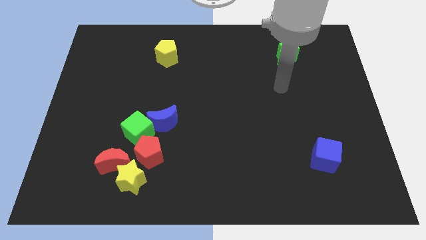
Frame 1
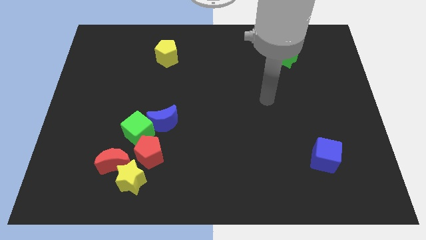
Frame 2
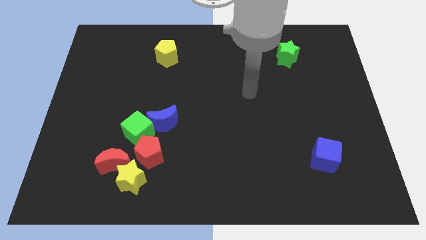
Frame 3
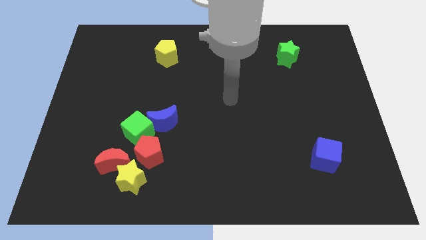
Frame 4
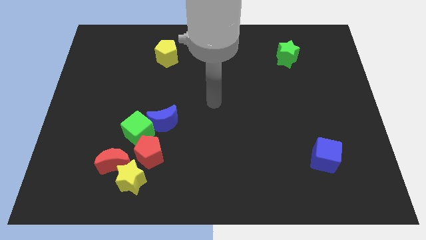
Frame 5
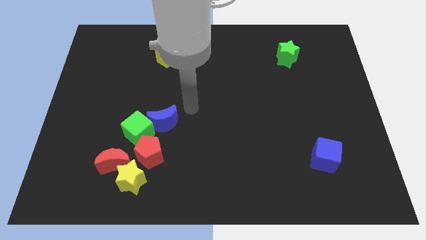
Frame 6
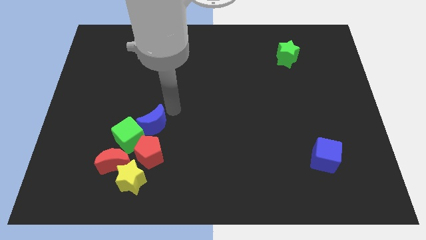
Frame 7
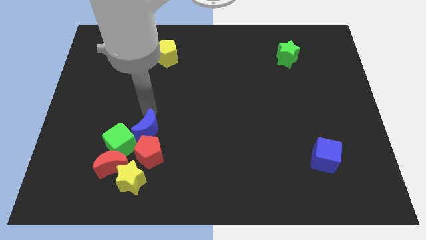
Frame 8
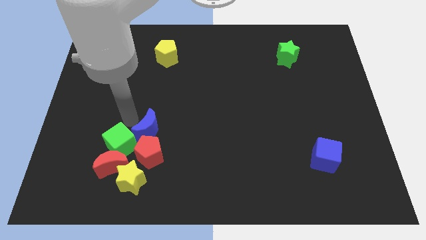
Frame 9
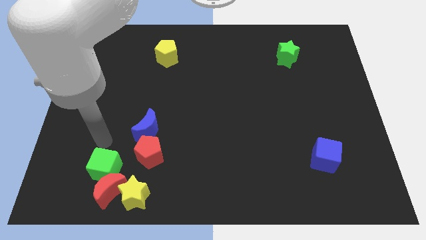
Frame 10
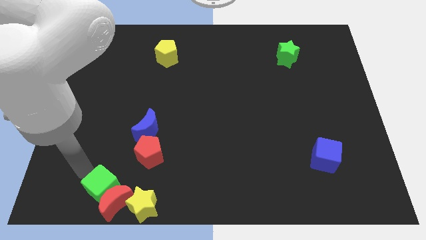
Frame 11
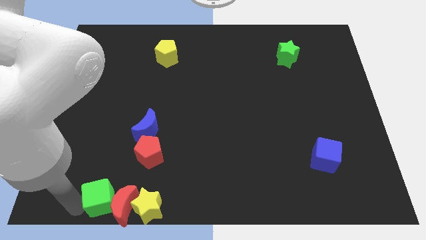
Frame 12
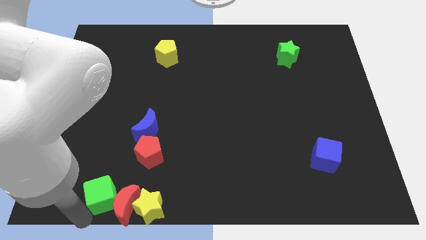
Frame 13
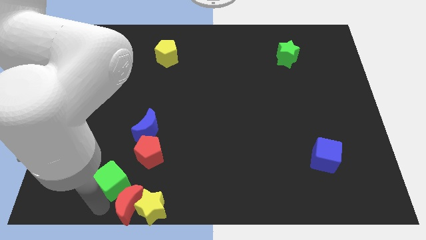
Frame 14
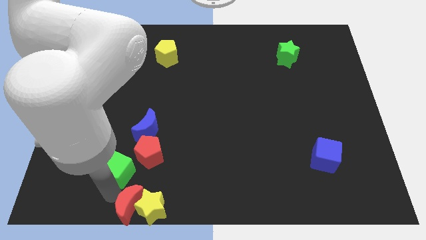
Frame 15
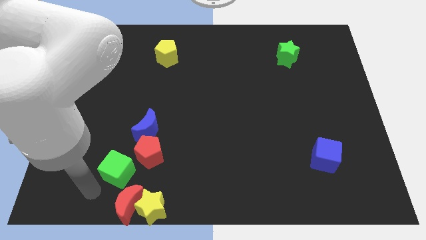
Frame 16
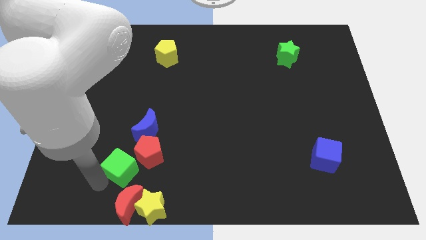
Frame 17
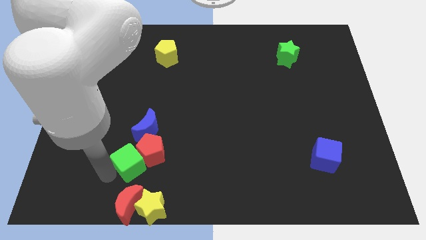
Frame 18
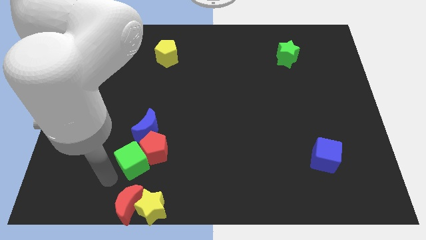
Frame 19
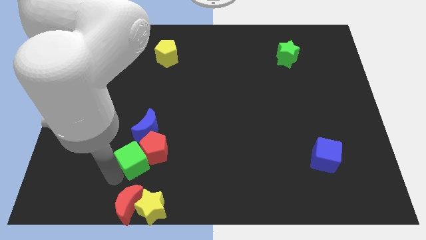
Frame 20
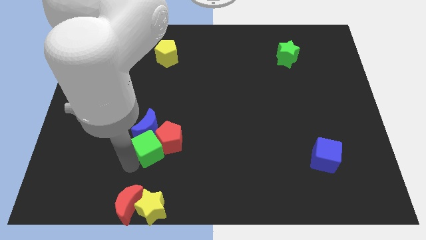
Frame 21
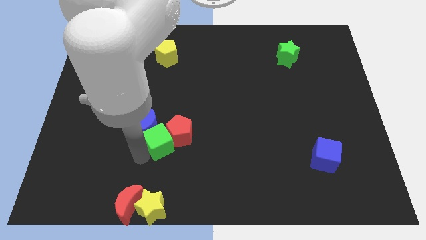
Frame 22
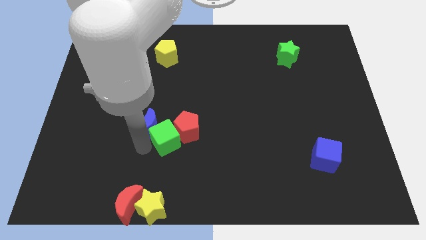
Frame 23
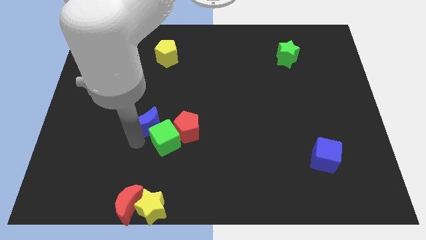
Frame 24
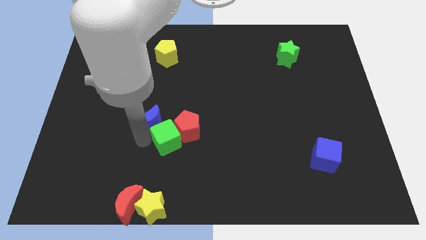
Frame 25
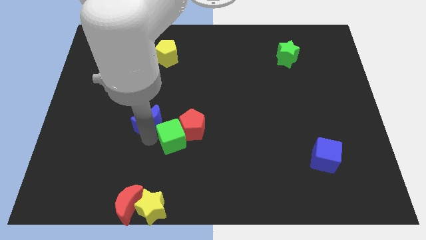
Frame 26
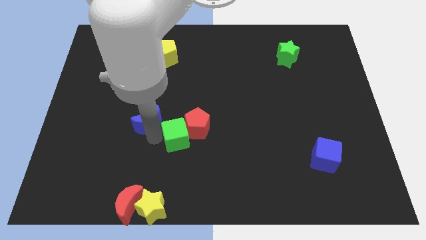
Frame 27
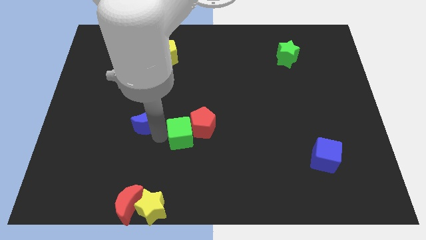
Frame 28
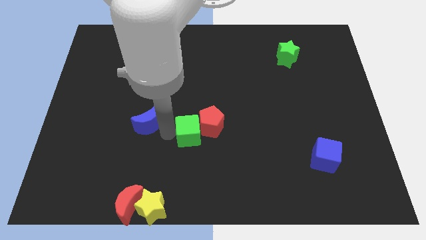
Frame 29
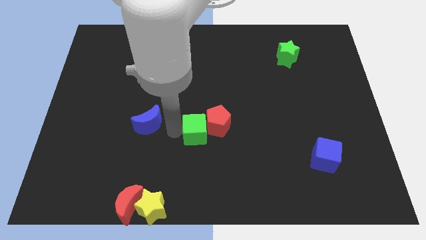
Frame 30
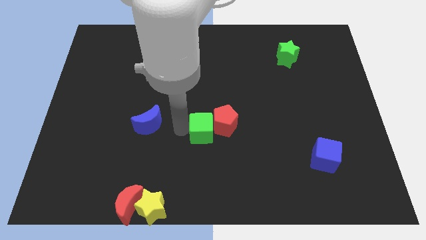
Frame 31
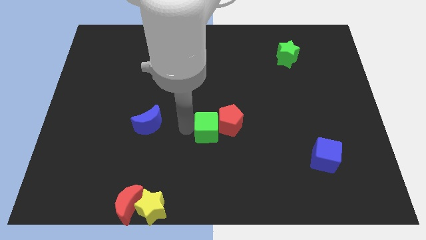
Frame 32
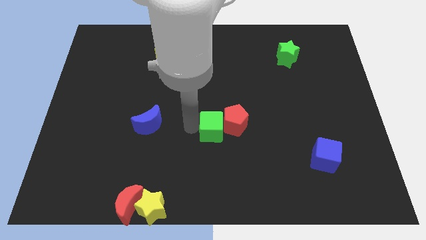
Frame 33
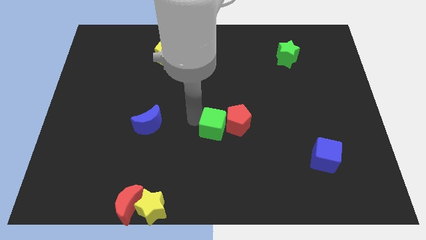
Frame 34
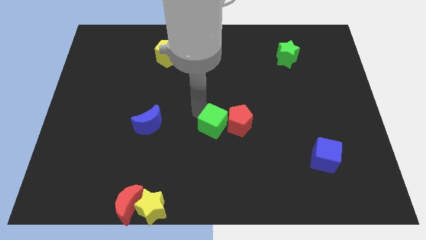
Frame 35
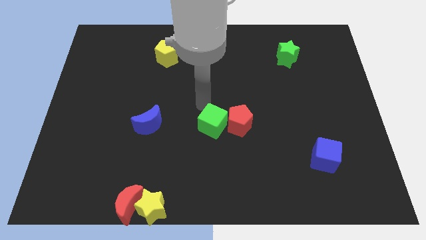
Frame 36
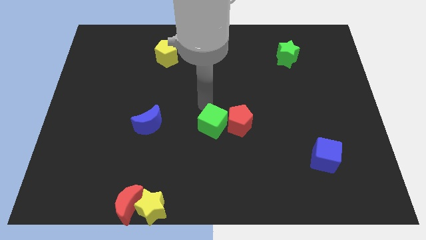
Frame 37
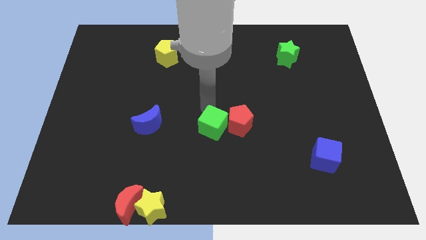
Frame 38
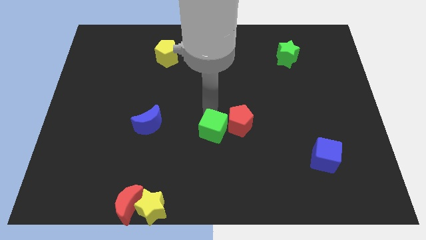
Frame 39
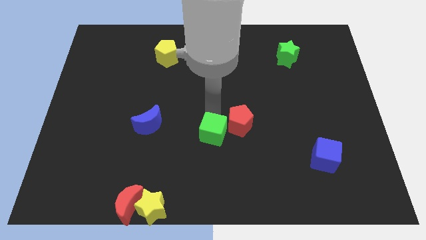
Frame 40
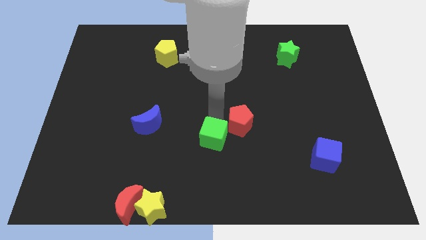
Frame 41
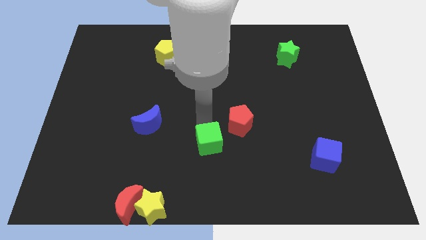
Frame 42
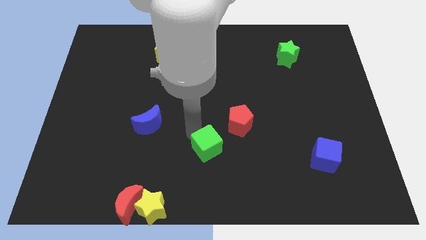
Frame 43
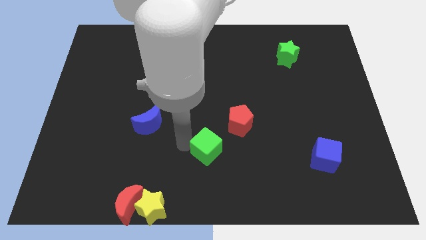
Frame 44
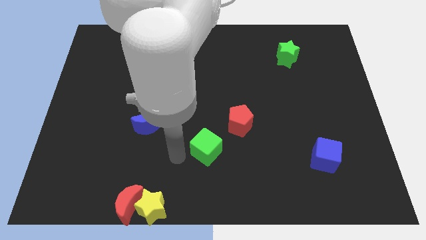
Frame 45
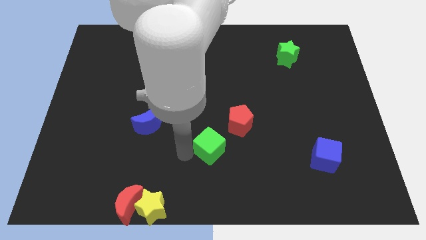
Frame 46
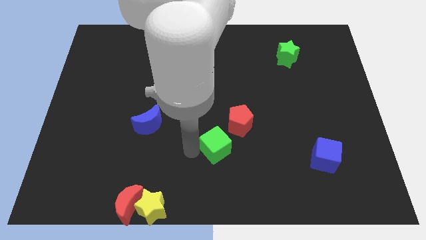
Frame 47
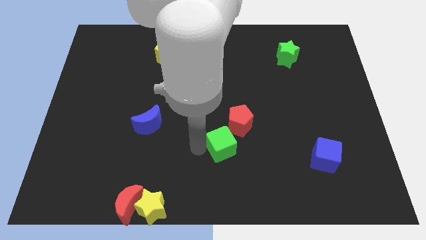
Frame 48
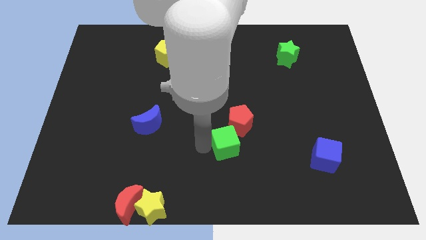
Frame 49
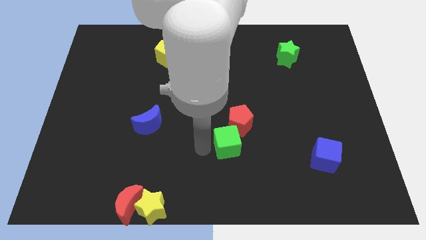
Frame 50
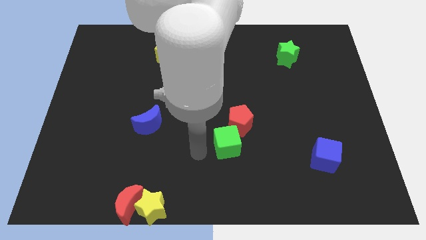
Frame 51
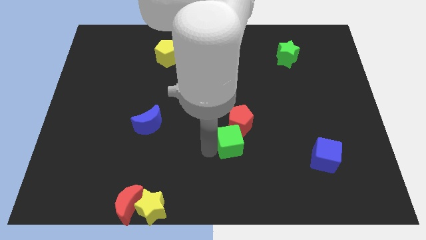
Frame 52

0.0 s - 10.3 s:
slide the green cube right

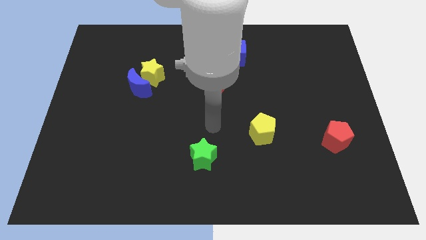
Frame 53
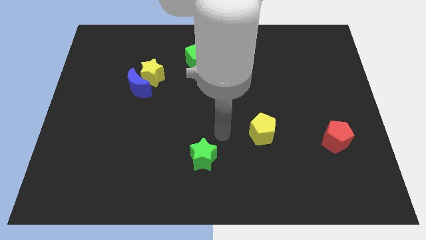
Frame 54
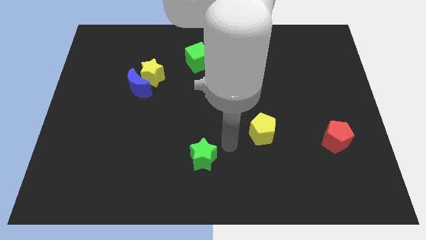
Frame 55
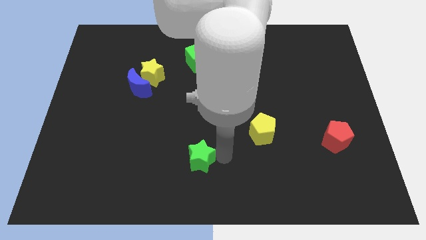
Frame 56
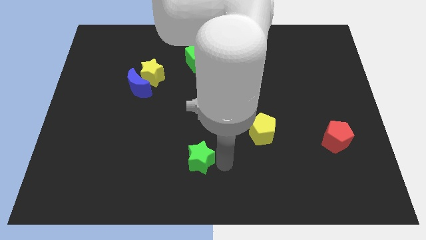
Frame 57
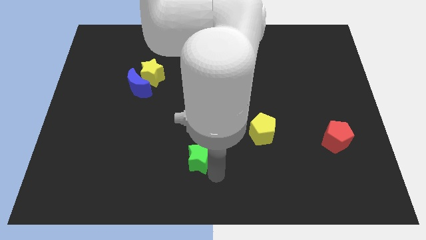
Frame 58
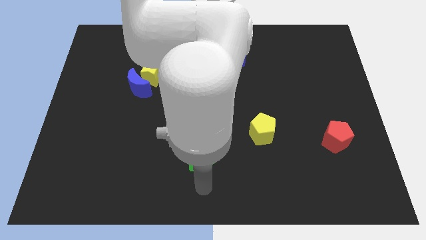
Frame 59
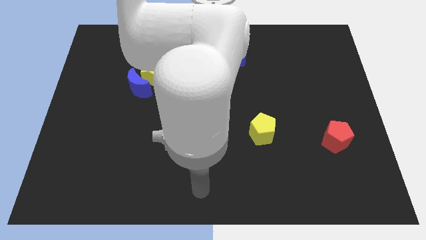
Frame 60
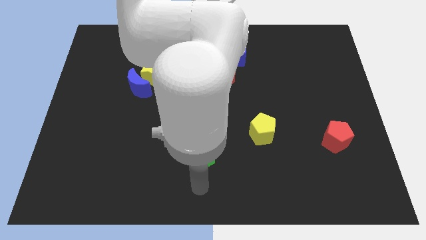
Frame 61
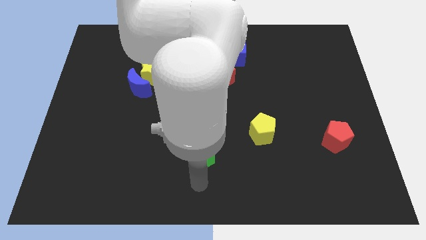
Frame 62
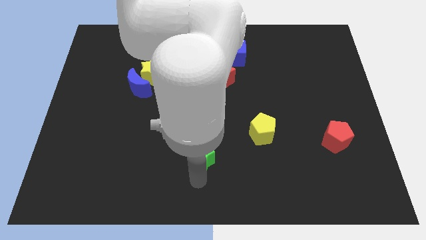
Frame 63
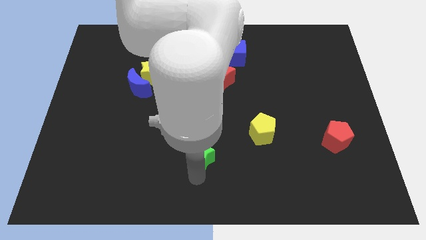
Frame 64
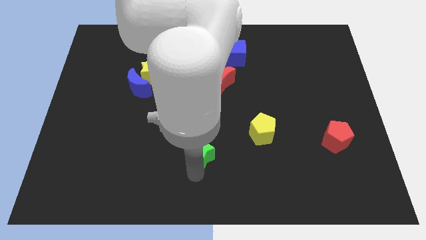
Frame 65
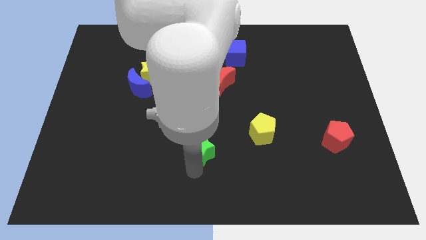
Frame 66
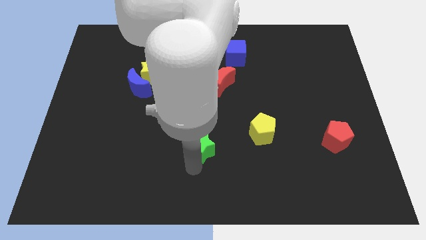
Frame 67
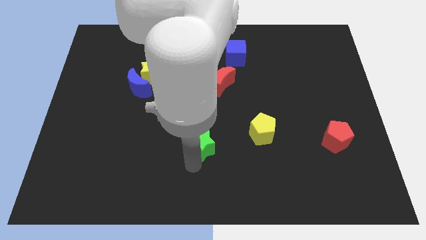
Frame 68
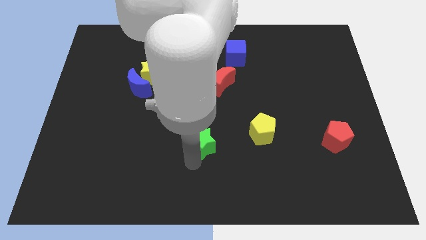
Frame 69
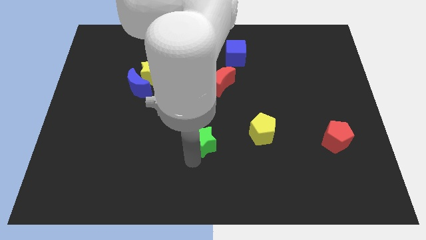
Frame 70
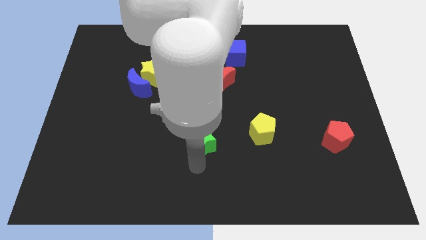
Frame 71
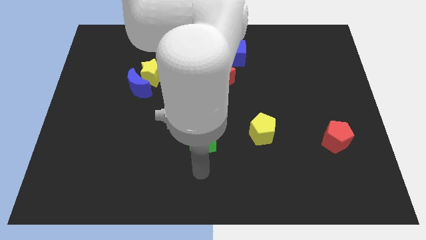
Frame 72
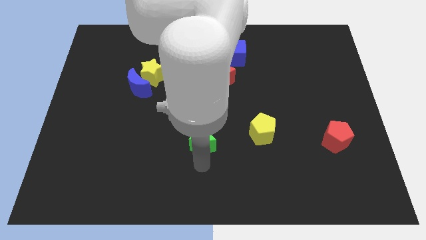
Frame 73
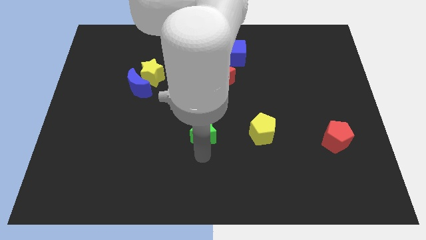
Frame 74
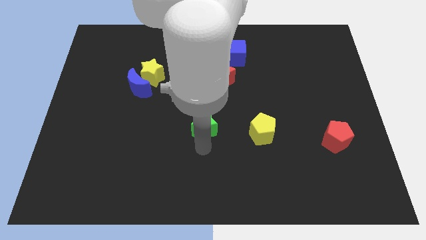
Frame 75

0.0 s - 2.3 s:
slide the green star up a little

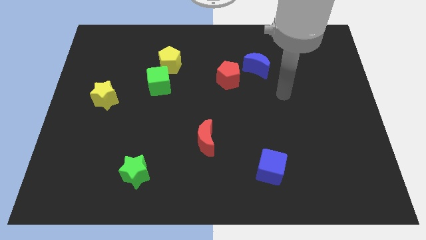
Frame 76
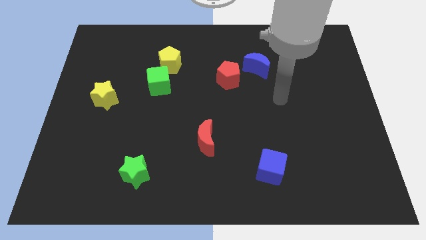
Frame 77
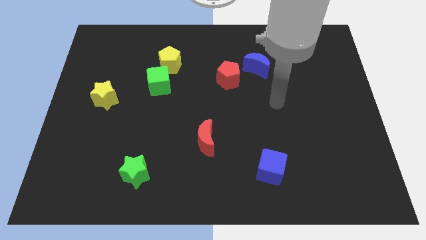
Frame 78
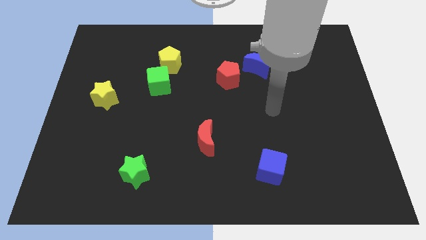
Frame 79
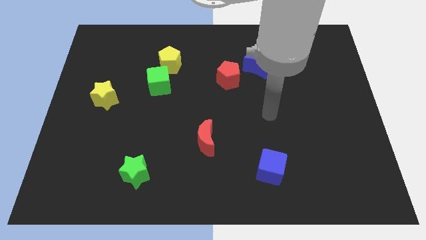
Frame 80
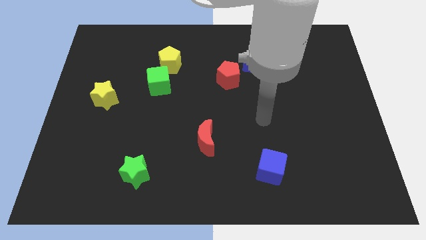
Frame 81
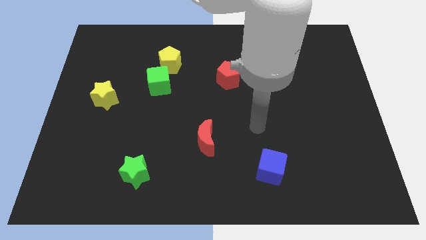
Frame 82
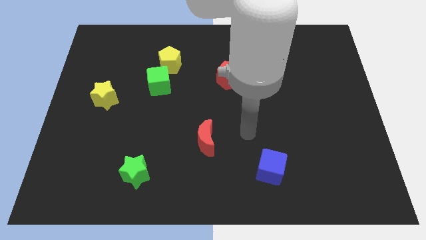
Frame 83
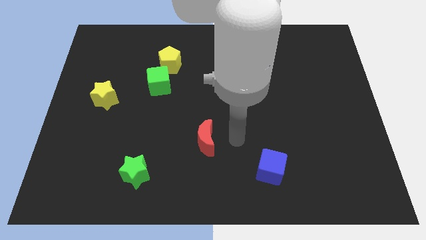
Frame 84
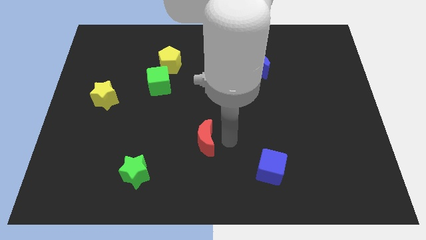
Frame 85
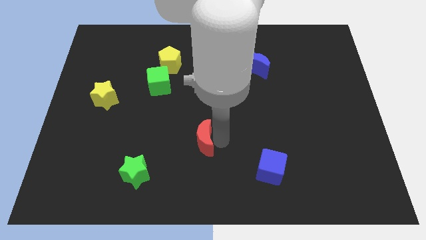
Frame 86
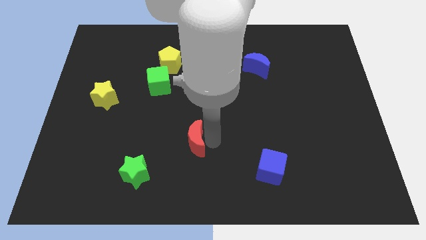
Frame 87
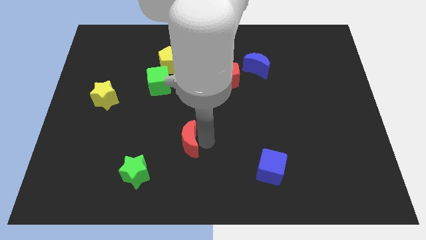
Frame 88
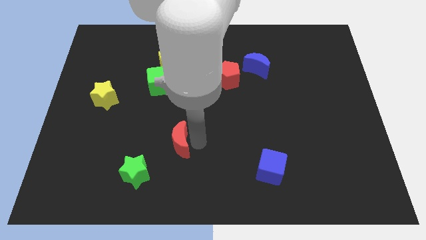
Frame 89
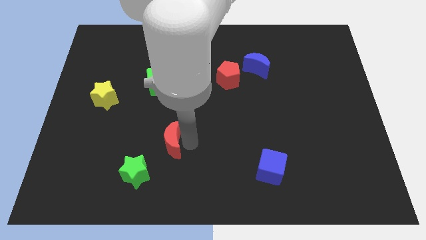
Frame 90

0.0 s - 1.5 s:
slide the red moon a little to the left
